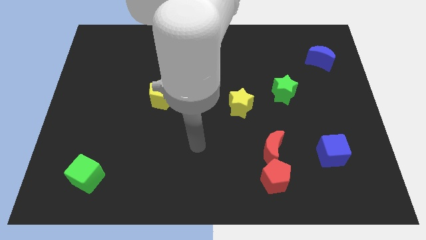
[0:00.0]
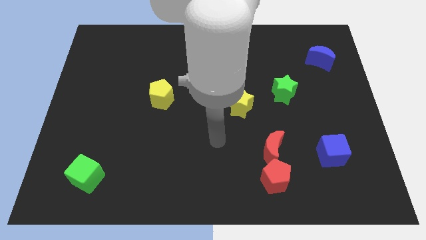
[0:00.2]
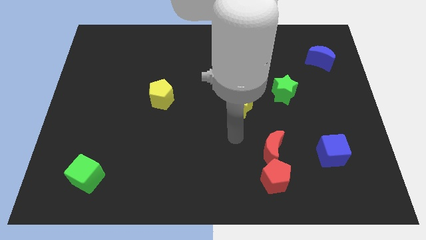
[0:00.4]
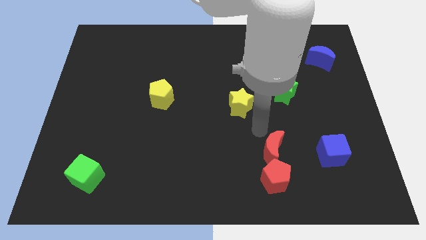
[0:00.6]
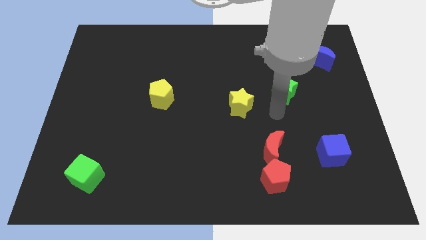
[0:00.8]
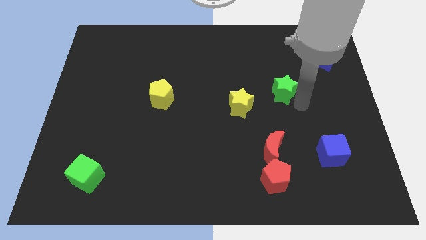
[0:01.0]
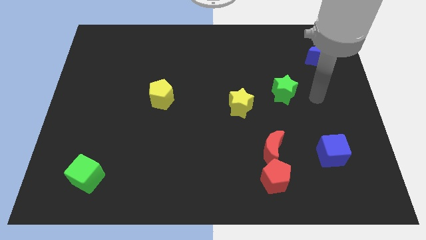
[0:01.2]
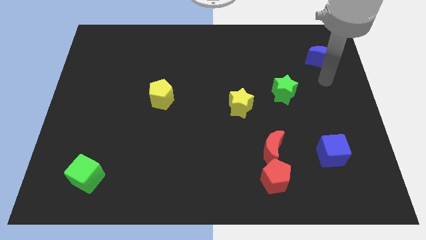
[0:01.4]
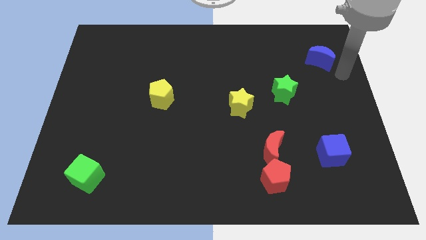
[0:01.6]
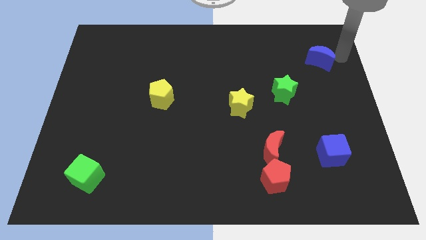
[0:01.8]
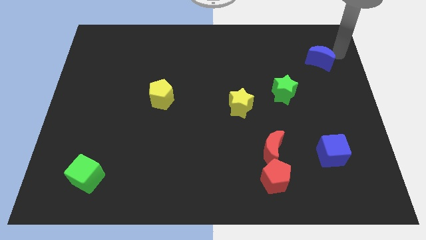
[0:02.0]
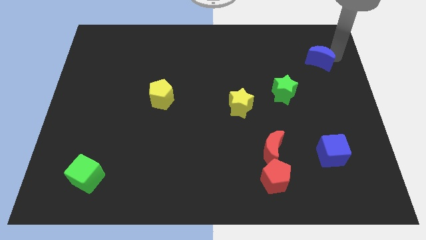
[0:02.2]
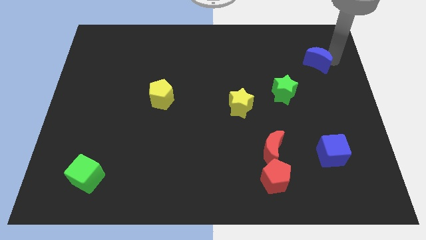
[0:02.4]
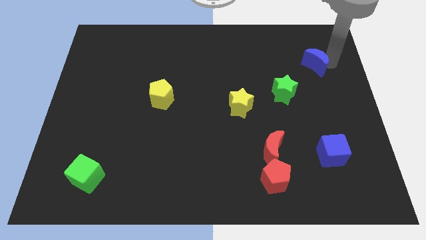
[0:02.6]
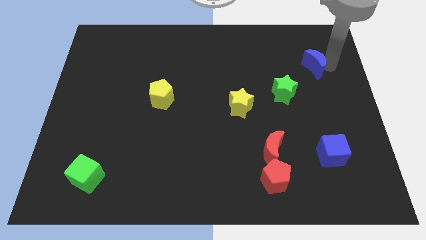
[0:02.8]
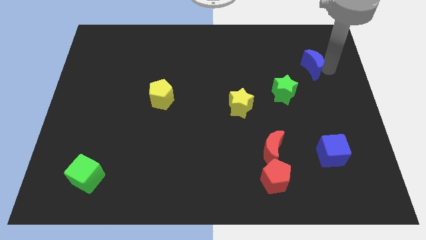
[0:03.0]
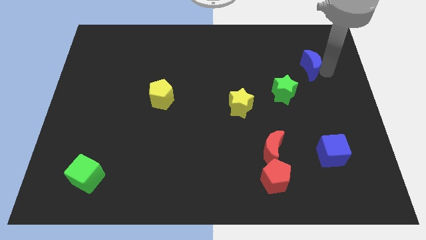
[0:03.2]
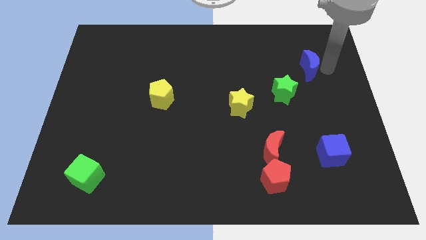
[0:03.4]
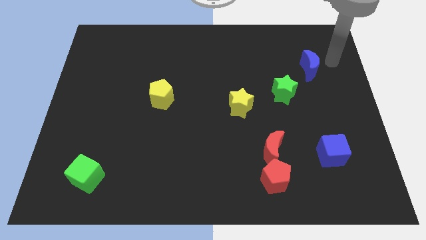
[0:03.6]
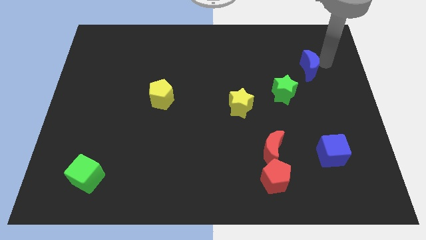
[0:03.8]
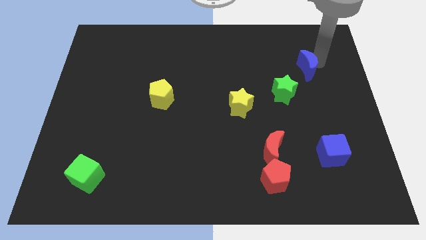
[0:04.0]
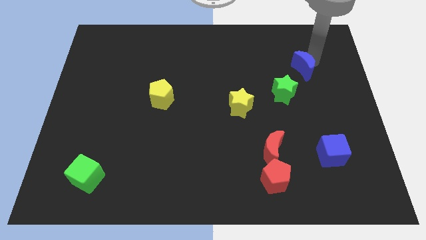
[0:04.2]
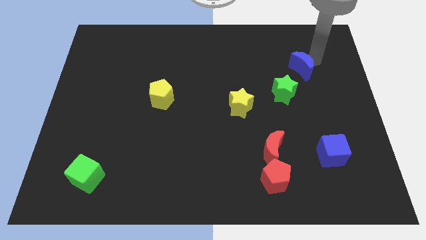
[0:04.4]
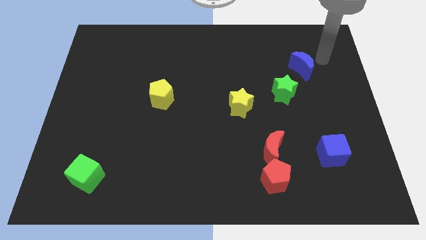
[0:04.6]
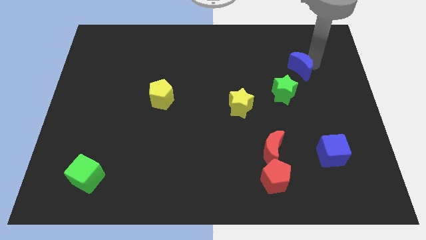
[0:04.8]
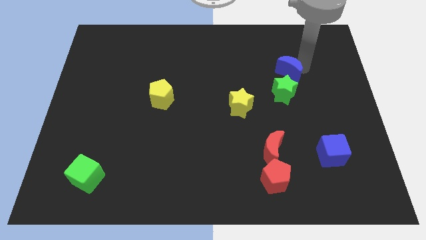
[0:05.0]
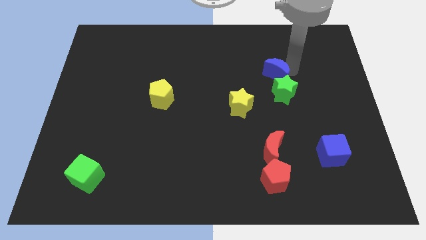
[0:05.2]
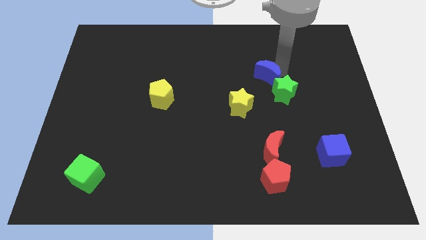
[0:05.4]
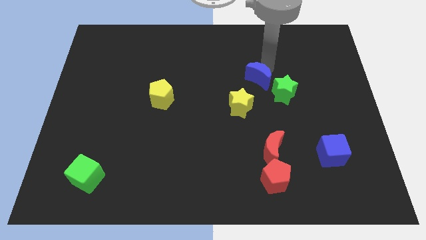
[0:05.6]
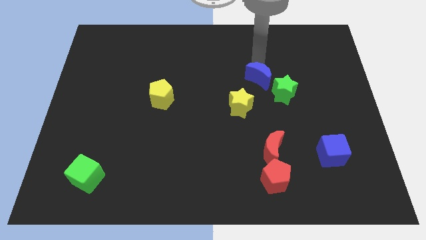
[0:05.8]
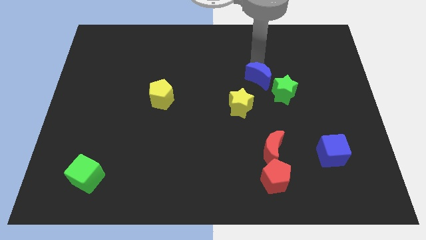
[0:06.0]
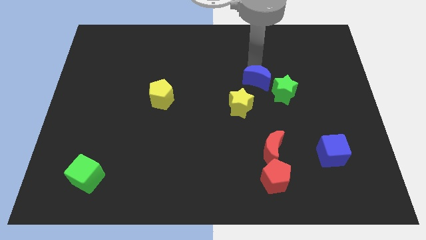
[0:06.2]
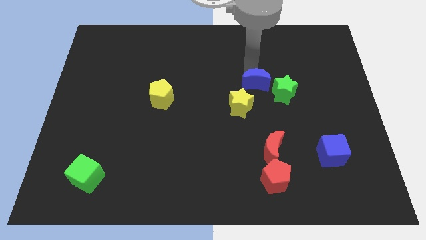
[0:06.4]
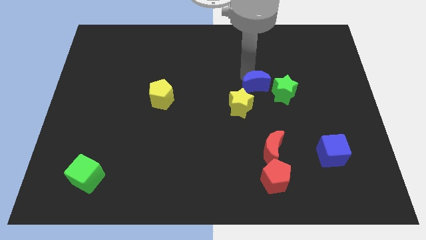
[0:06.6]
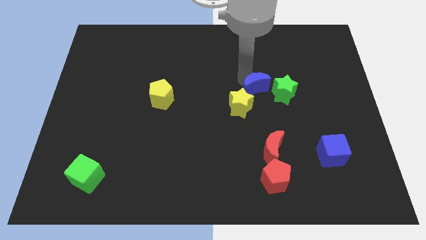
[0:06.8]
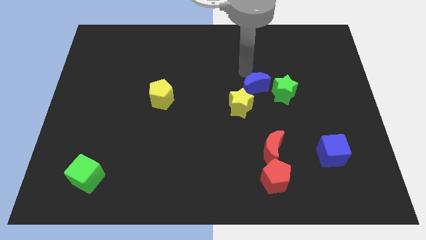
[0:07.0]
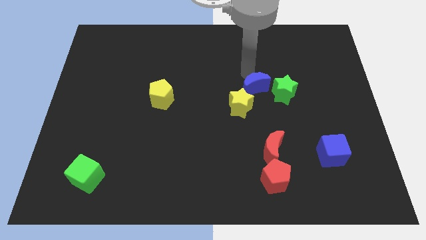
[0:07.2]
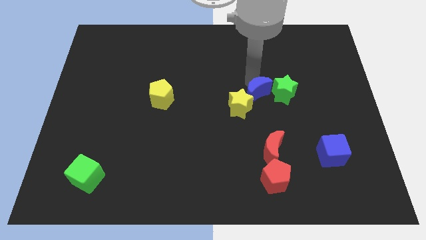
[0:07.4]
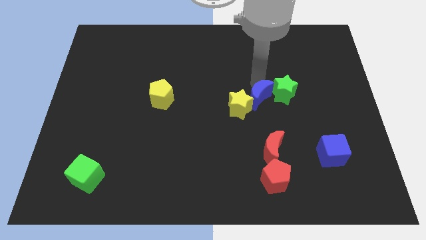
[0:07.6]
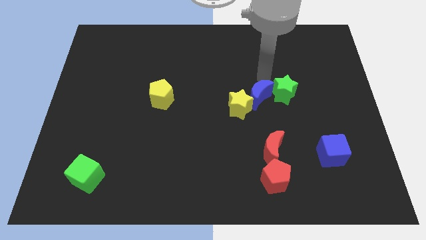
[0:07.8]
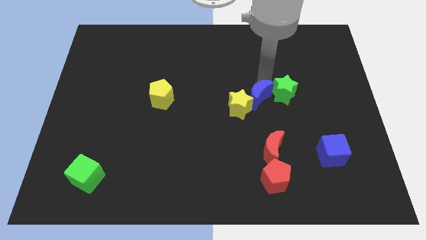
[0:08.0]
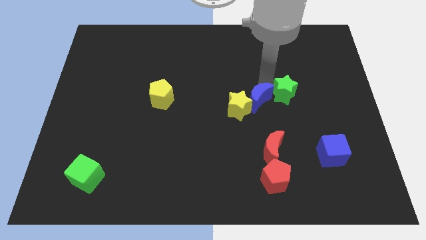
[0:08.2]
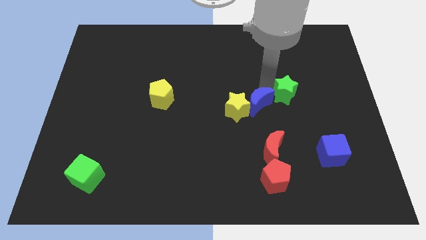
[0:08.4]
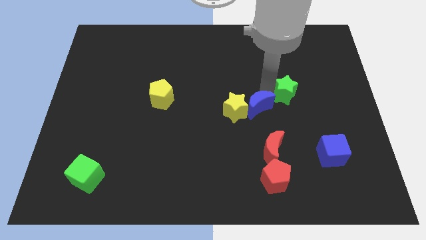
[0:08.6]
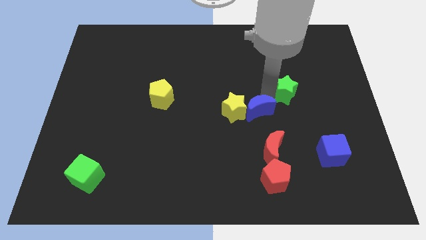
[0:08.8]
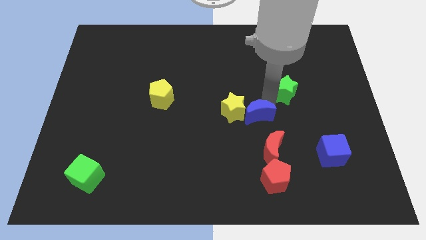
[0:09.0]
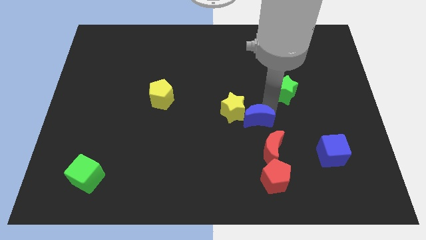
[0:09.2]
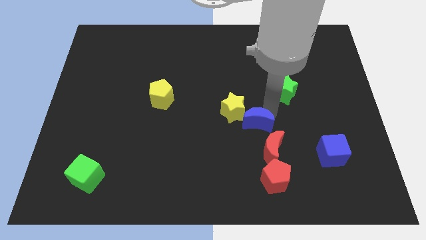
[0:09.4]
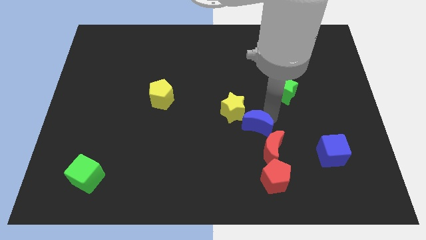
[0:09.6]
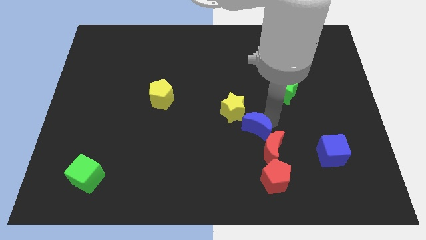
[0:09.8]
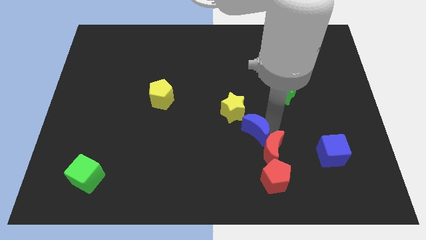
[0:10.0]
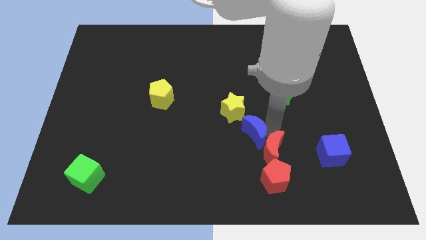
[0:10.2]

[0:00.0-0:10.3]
put the blue moon just left of the red moon

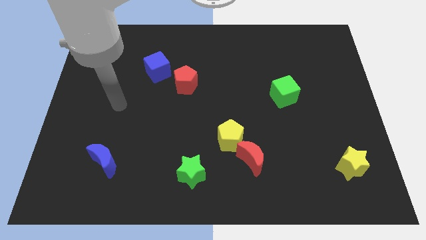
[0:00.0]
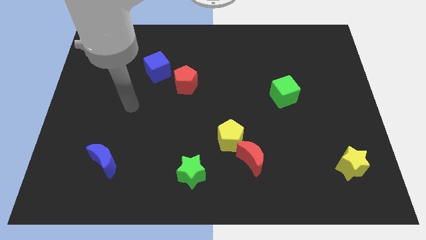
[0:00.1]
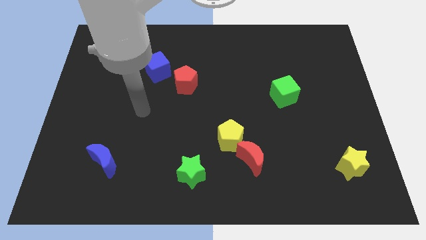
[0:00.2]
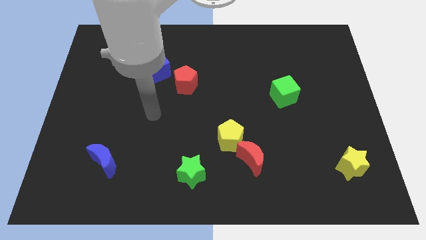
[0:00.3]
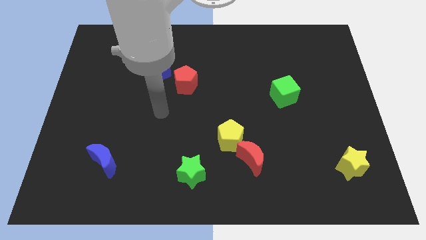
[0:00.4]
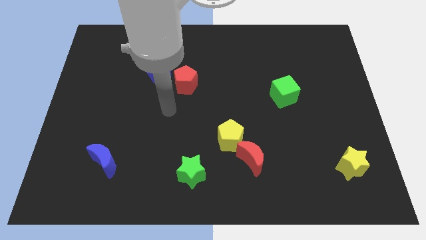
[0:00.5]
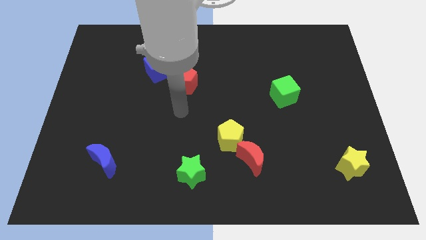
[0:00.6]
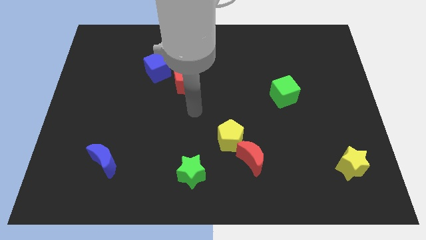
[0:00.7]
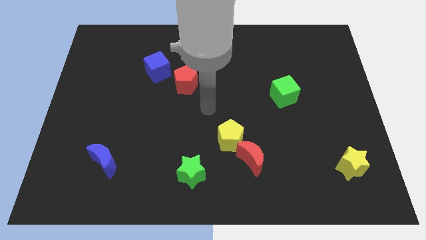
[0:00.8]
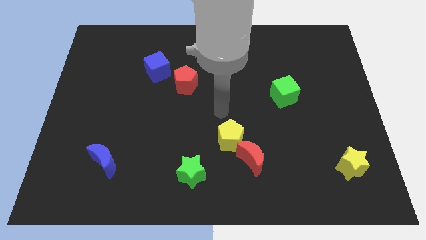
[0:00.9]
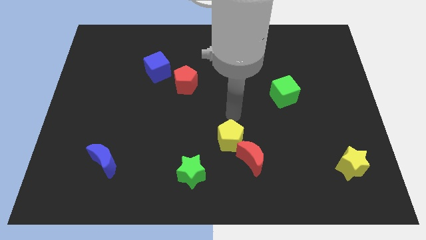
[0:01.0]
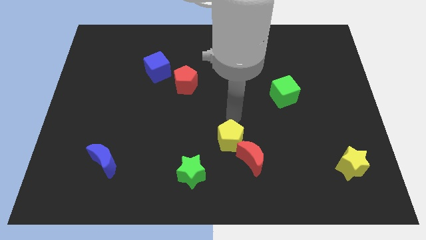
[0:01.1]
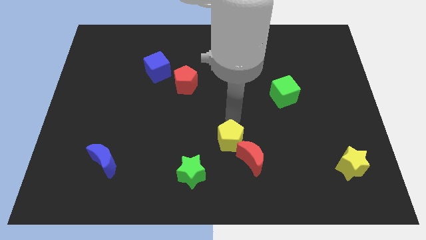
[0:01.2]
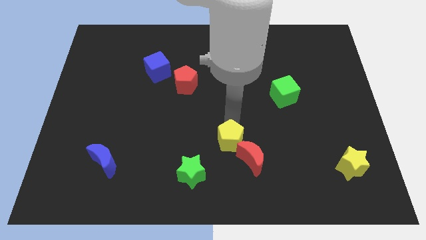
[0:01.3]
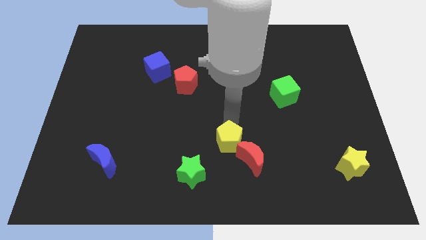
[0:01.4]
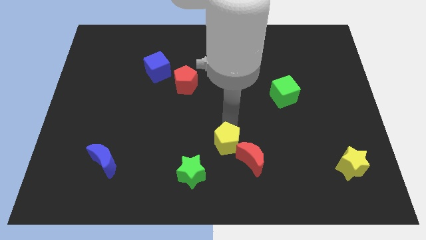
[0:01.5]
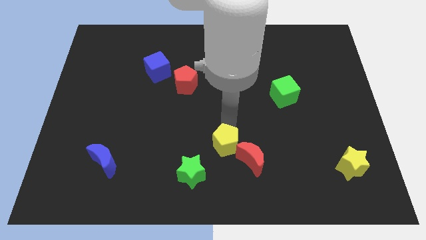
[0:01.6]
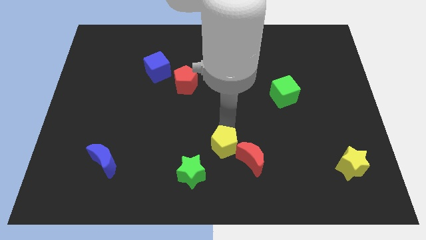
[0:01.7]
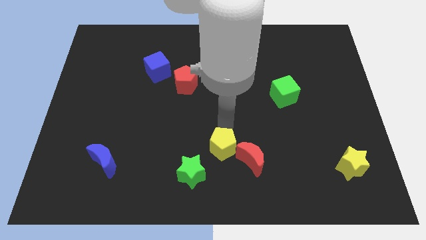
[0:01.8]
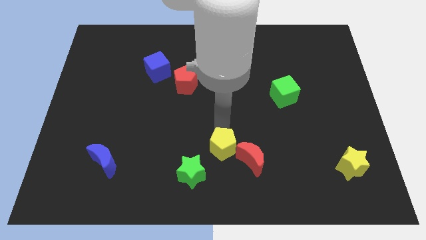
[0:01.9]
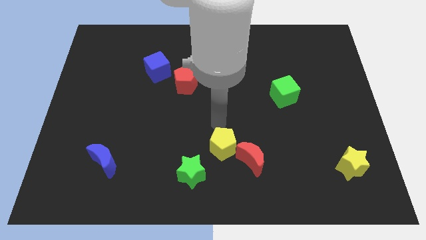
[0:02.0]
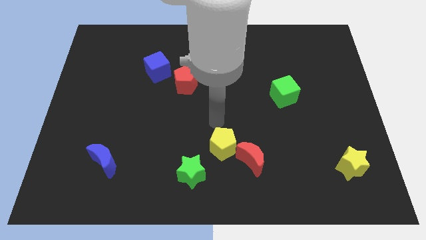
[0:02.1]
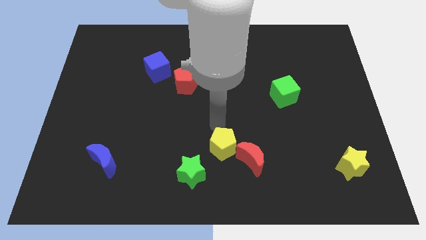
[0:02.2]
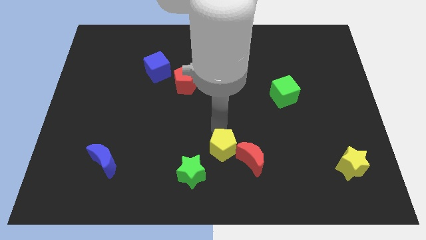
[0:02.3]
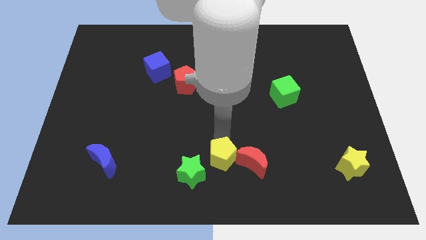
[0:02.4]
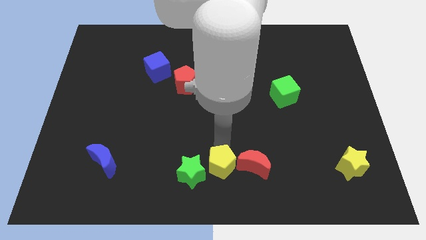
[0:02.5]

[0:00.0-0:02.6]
move the yellow pentagon to the bottom left side of the red moon

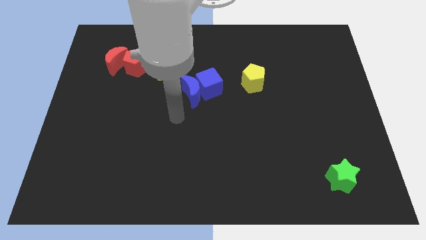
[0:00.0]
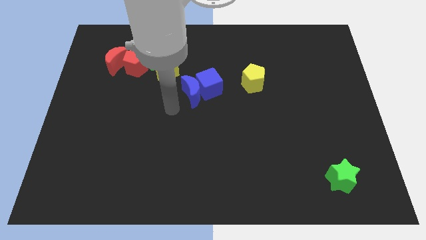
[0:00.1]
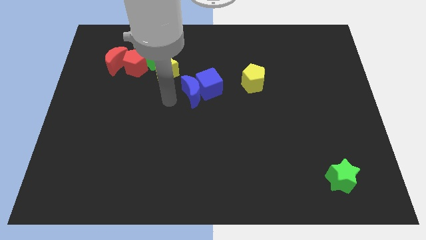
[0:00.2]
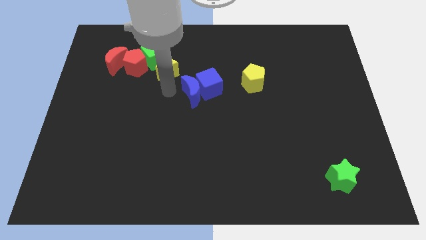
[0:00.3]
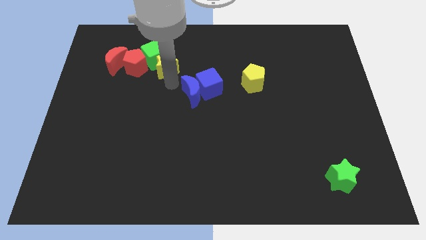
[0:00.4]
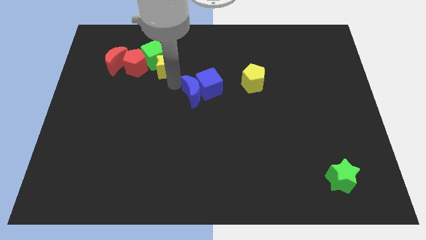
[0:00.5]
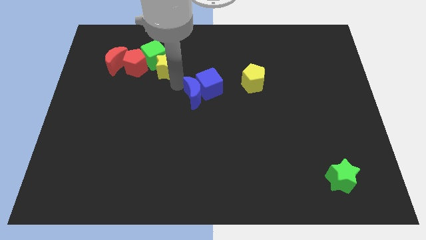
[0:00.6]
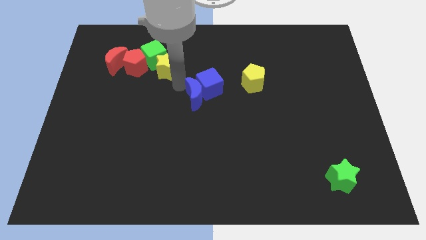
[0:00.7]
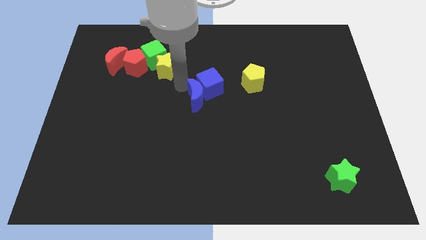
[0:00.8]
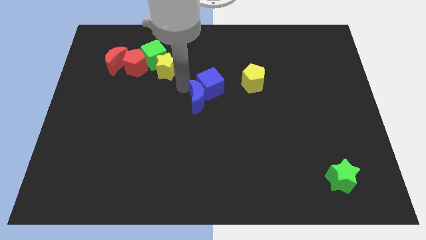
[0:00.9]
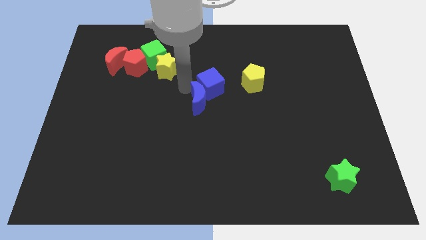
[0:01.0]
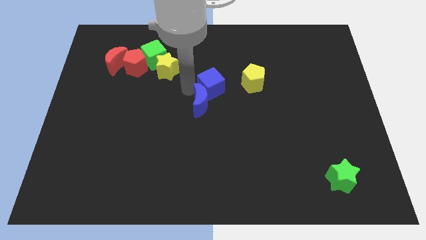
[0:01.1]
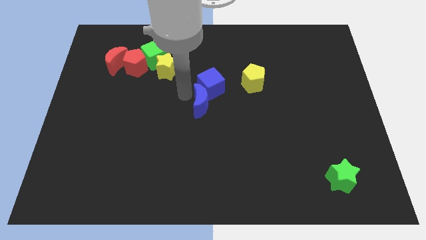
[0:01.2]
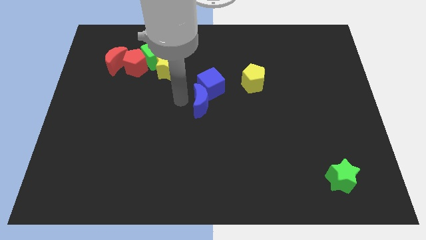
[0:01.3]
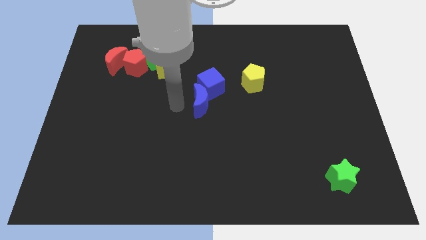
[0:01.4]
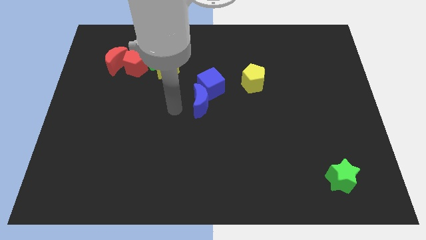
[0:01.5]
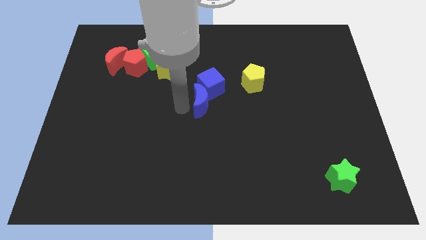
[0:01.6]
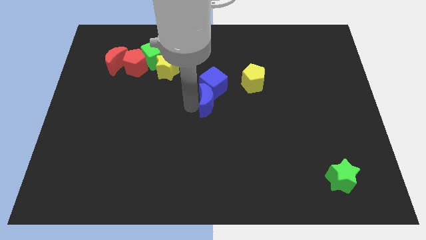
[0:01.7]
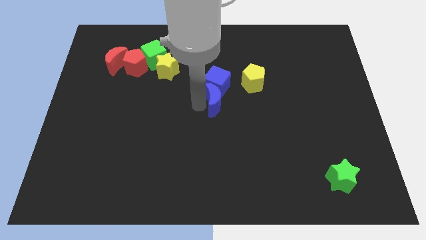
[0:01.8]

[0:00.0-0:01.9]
put the blue moon to the bottom left side of the yellow pentagon
